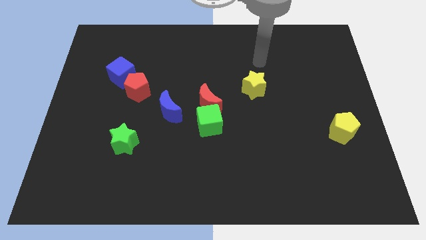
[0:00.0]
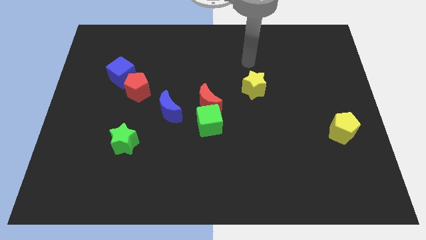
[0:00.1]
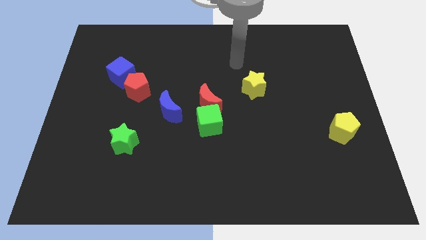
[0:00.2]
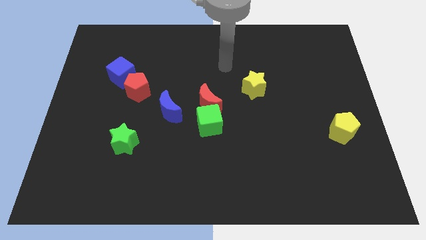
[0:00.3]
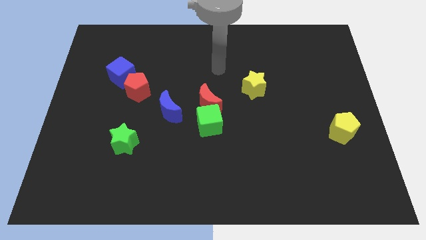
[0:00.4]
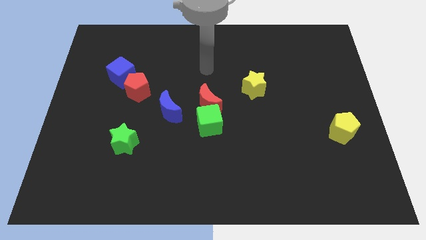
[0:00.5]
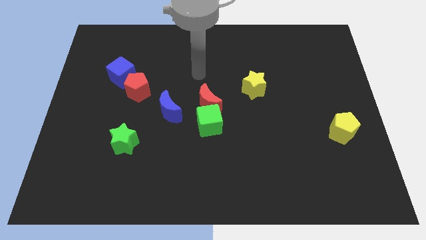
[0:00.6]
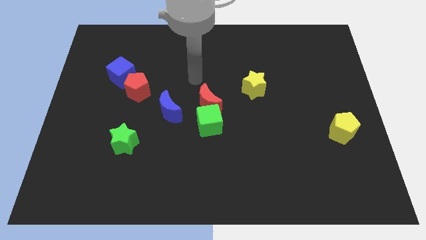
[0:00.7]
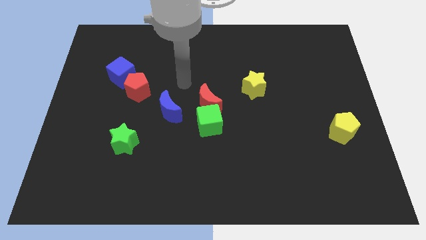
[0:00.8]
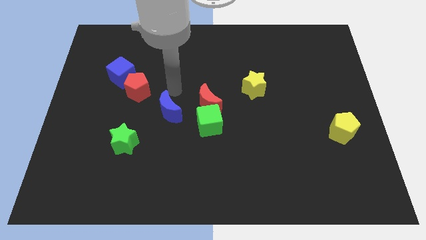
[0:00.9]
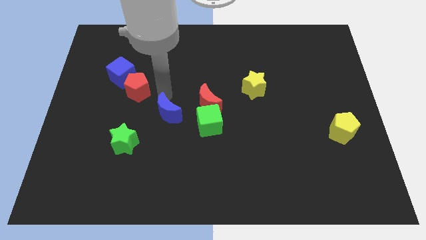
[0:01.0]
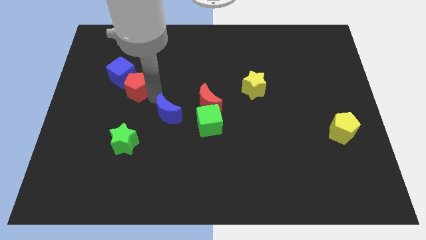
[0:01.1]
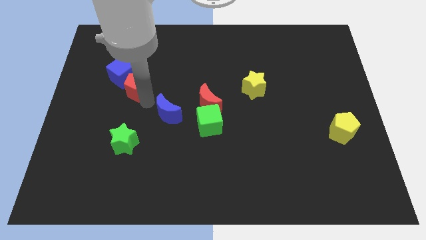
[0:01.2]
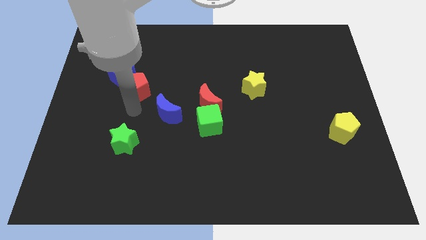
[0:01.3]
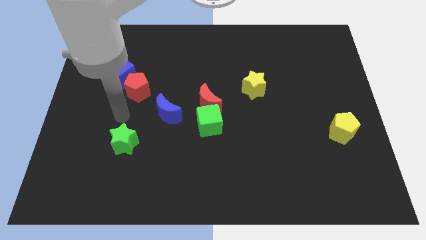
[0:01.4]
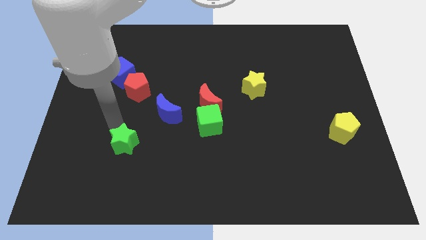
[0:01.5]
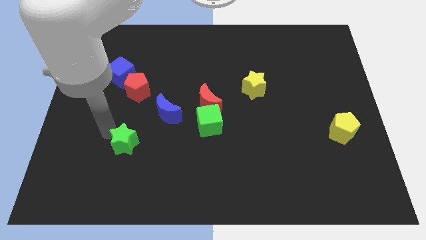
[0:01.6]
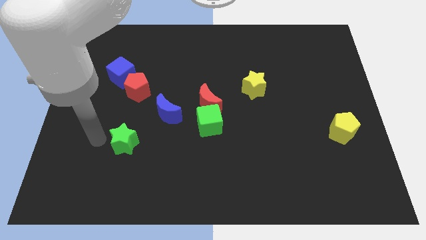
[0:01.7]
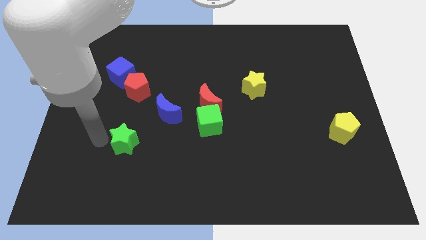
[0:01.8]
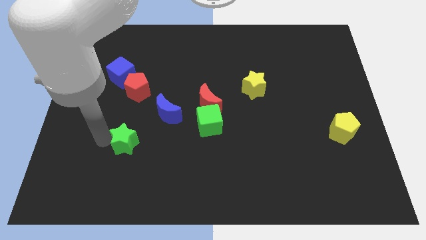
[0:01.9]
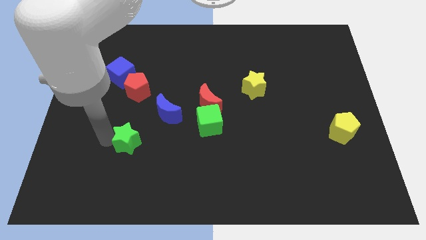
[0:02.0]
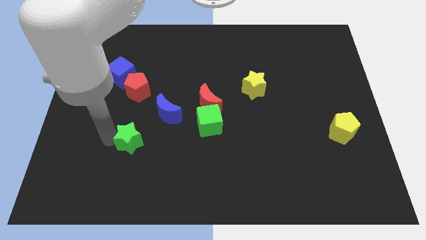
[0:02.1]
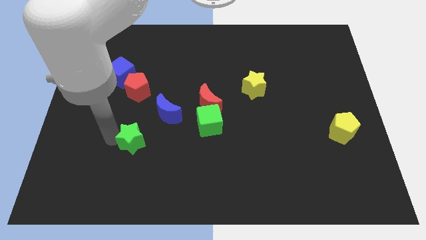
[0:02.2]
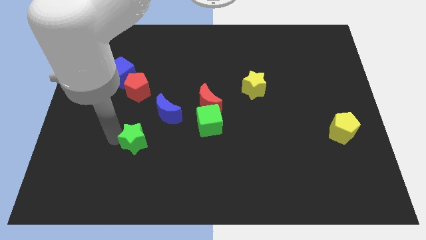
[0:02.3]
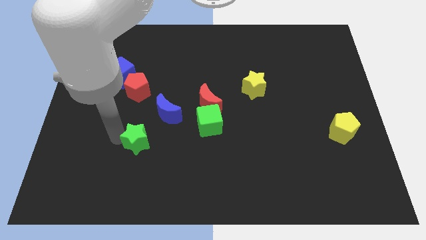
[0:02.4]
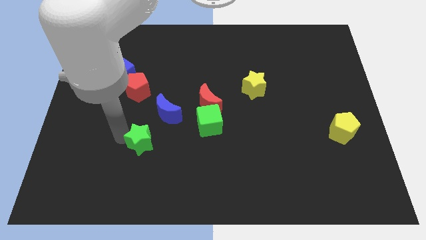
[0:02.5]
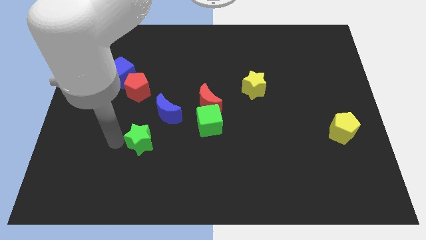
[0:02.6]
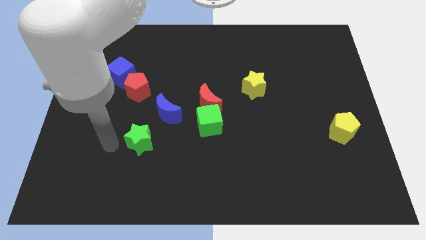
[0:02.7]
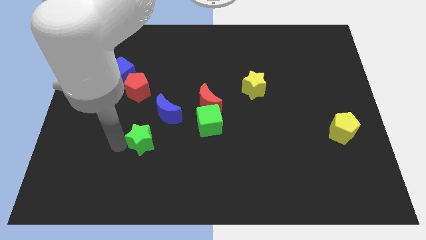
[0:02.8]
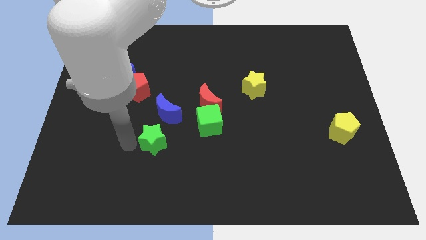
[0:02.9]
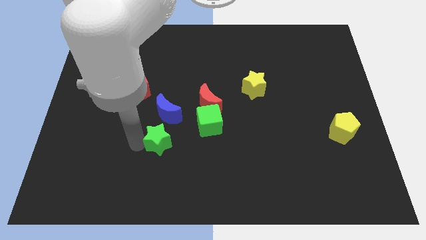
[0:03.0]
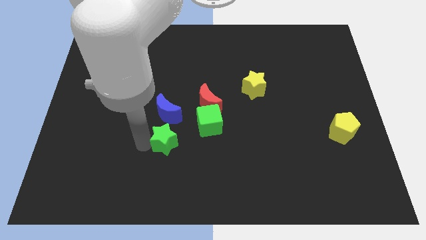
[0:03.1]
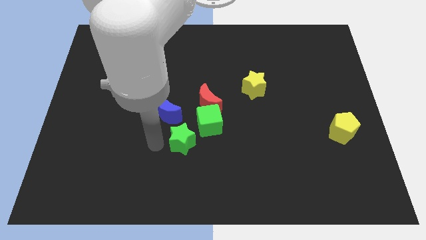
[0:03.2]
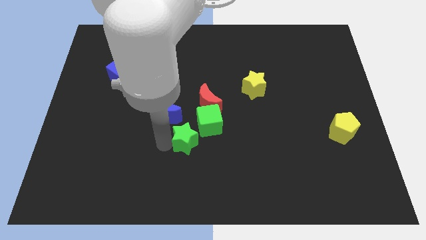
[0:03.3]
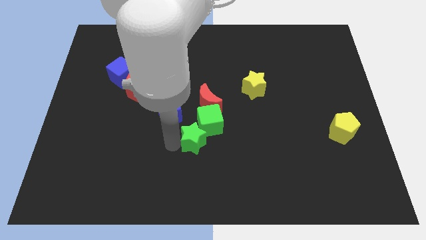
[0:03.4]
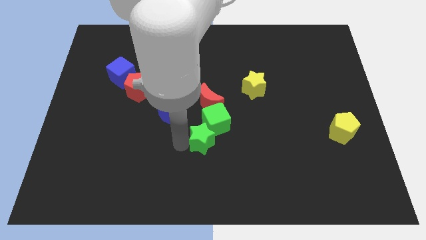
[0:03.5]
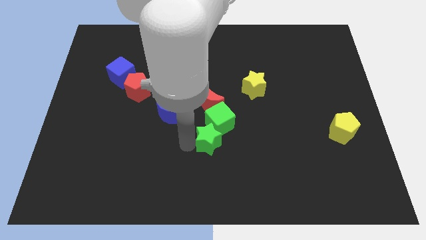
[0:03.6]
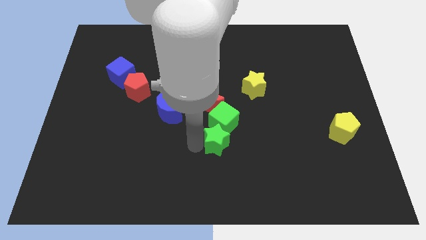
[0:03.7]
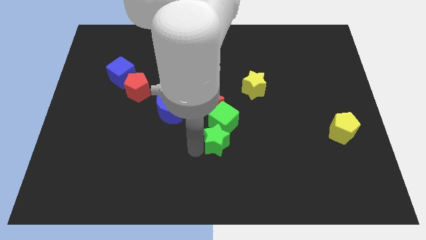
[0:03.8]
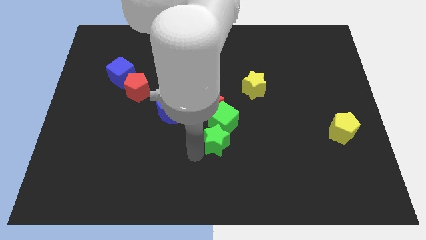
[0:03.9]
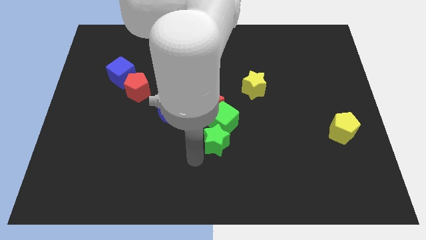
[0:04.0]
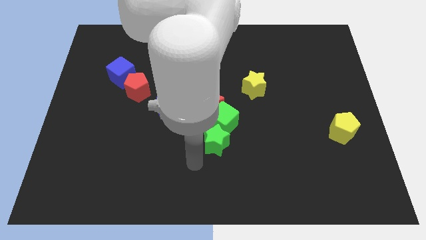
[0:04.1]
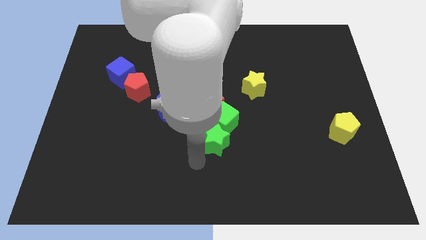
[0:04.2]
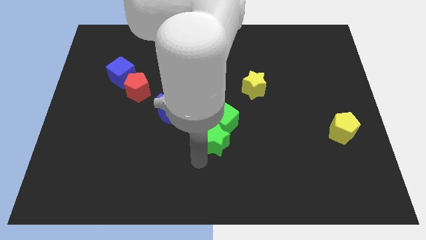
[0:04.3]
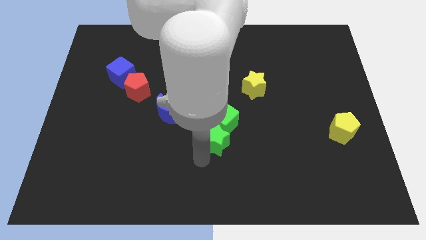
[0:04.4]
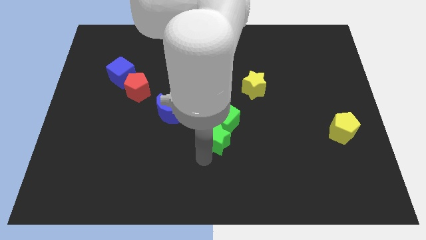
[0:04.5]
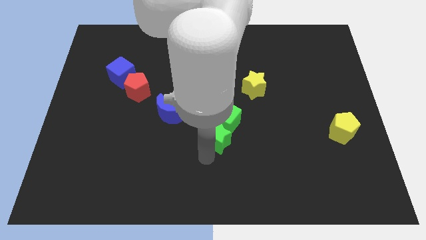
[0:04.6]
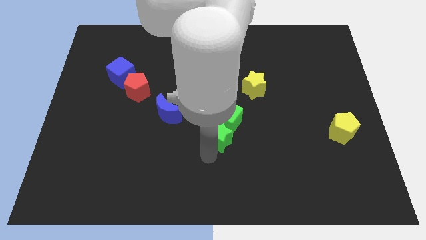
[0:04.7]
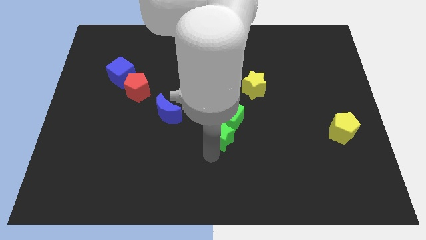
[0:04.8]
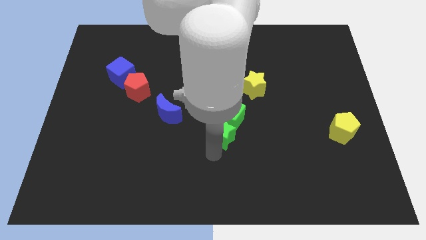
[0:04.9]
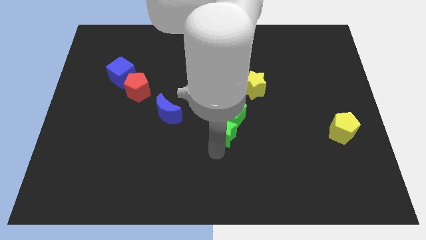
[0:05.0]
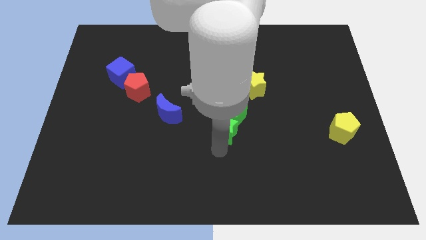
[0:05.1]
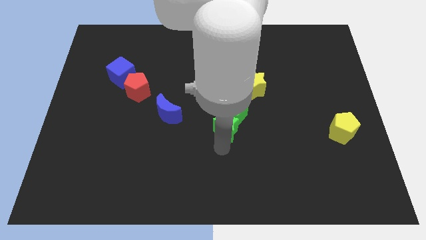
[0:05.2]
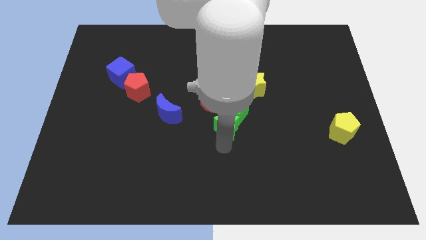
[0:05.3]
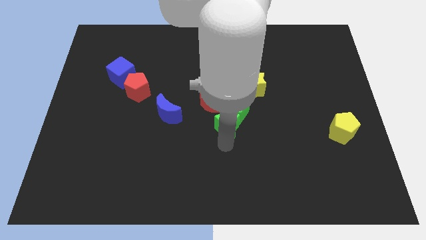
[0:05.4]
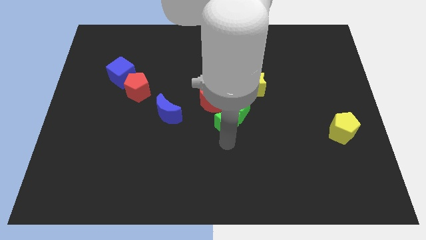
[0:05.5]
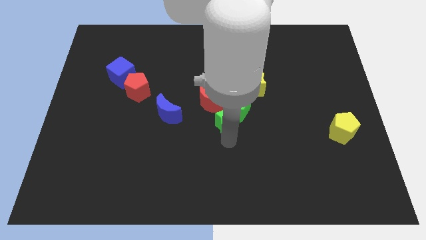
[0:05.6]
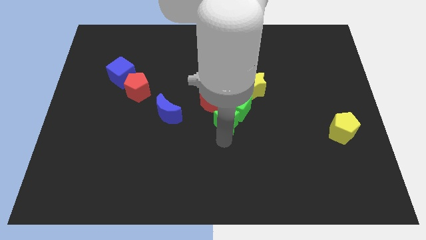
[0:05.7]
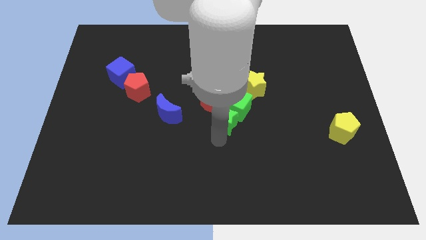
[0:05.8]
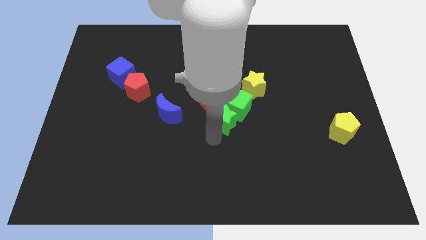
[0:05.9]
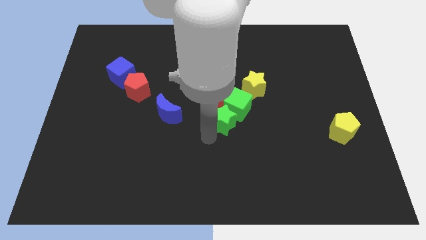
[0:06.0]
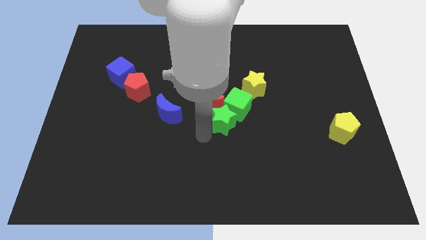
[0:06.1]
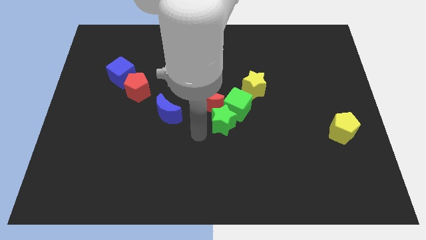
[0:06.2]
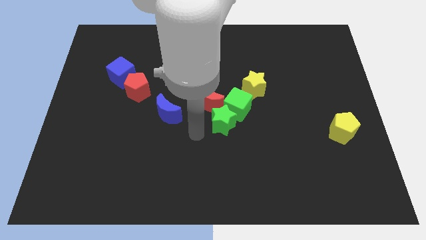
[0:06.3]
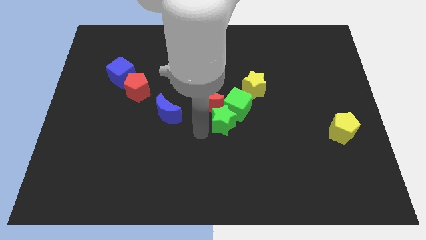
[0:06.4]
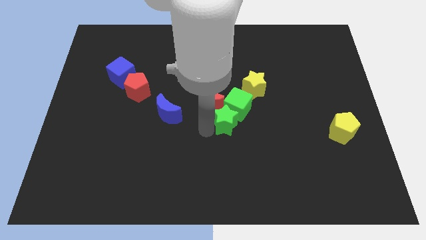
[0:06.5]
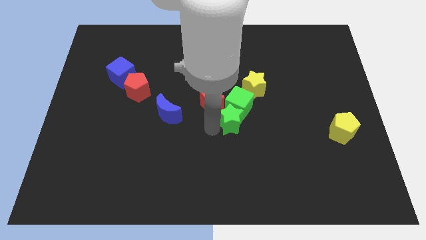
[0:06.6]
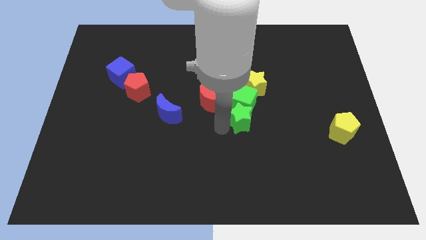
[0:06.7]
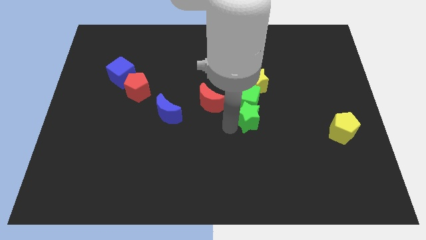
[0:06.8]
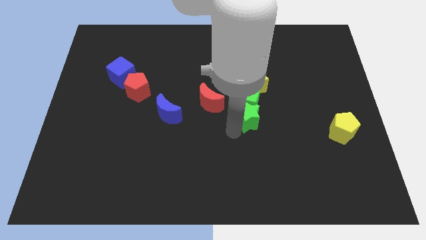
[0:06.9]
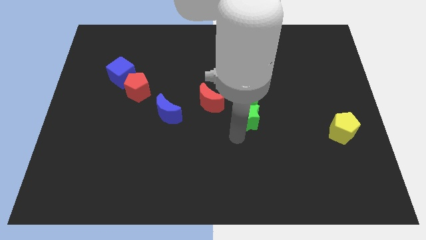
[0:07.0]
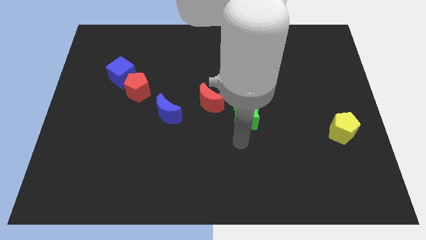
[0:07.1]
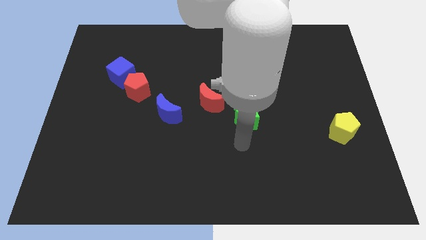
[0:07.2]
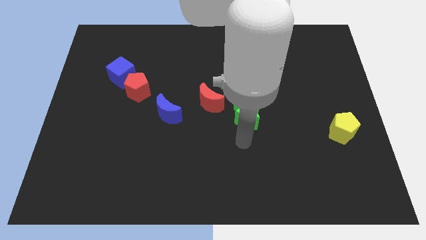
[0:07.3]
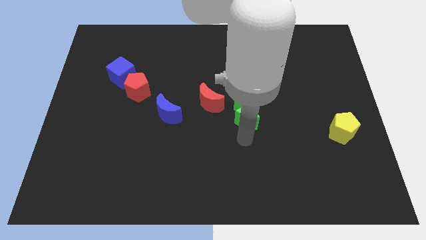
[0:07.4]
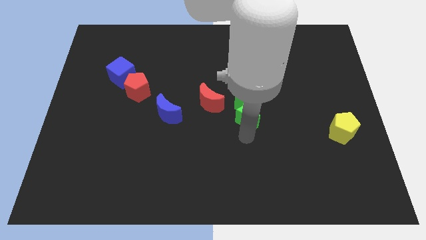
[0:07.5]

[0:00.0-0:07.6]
move the green star right of the red moon
